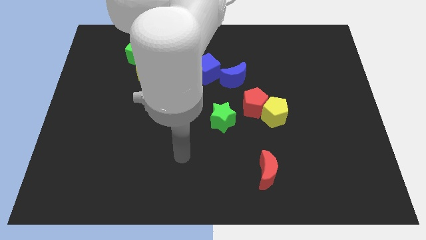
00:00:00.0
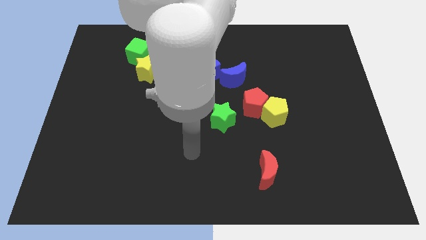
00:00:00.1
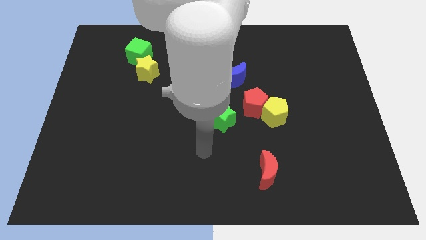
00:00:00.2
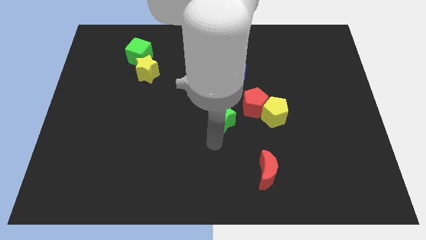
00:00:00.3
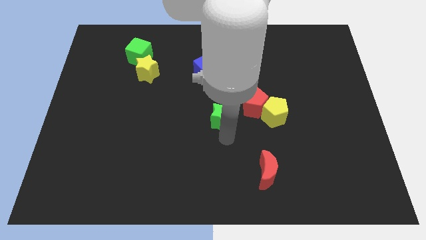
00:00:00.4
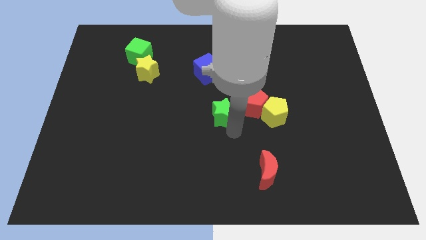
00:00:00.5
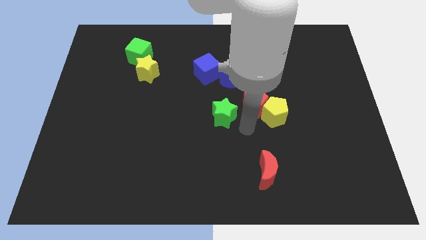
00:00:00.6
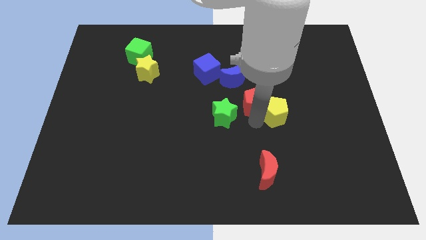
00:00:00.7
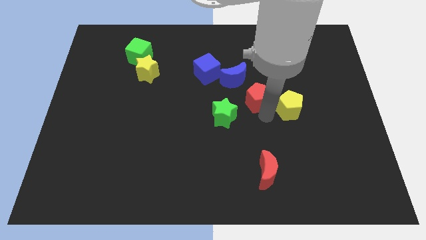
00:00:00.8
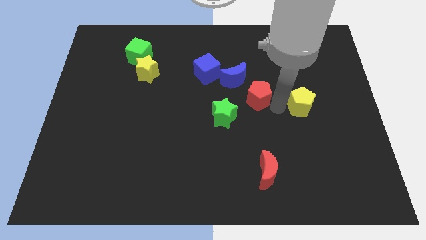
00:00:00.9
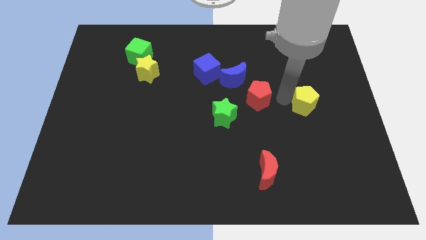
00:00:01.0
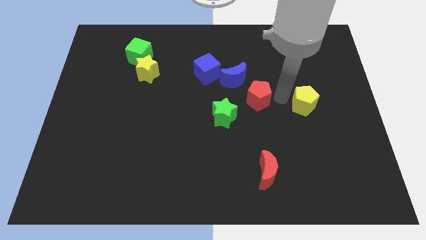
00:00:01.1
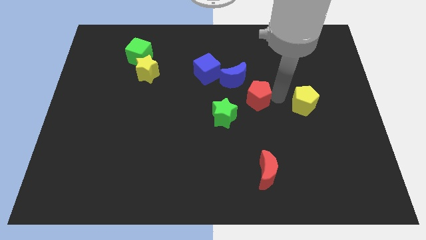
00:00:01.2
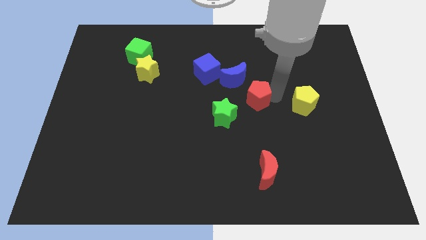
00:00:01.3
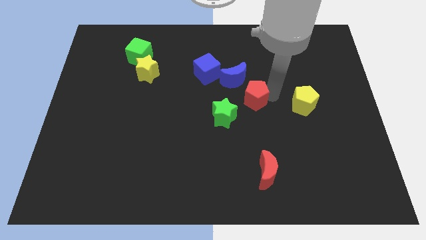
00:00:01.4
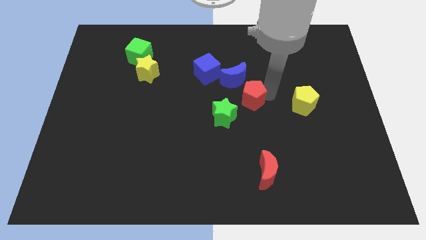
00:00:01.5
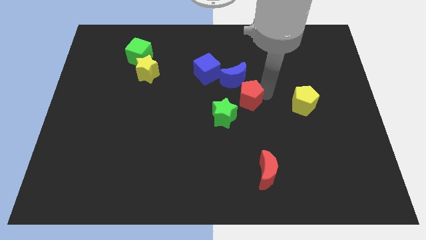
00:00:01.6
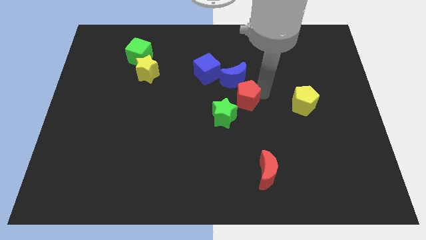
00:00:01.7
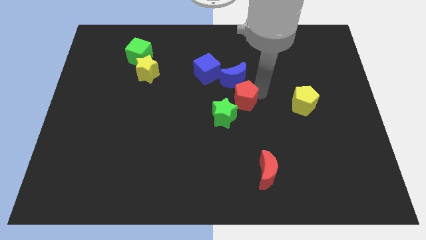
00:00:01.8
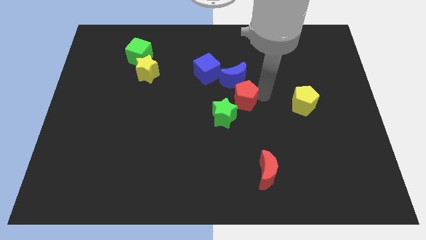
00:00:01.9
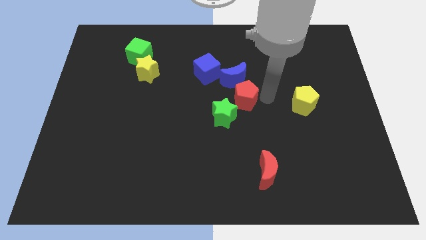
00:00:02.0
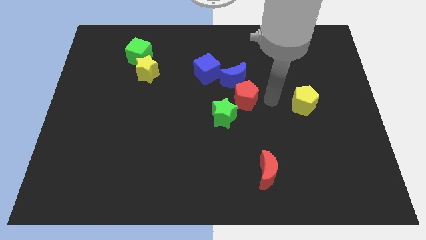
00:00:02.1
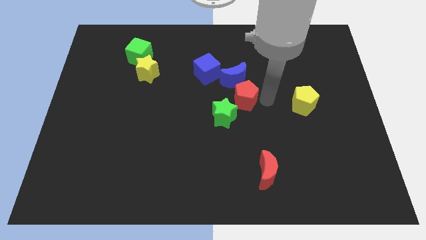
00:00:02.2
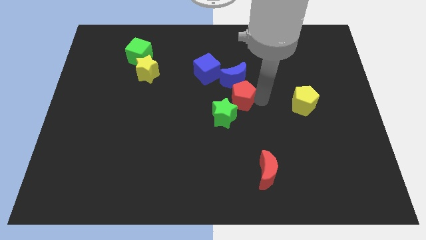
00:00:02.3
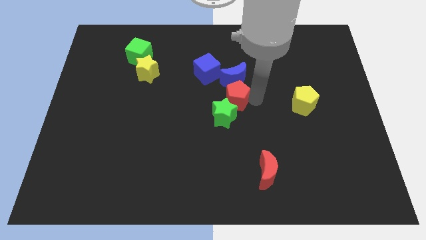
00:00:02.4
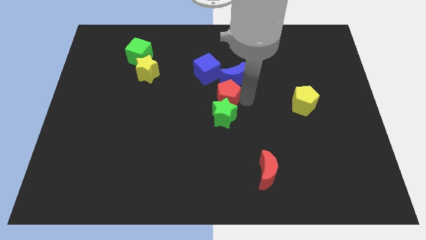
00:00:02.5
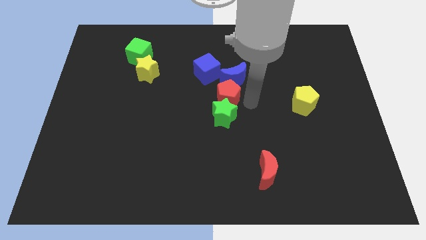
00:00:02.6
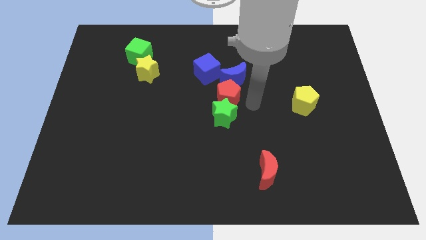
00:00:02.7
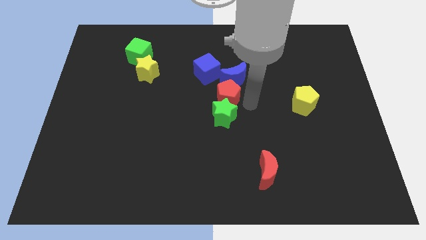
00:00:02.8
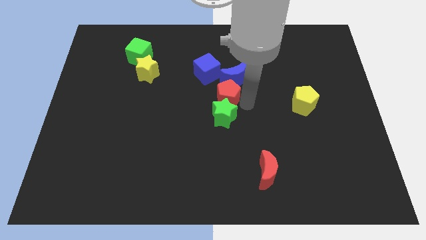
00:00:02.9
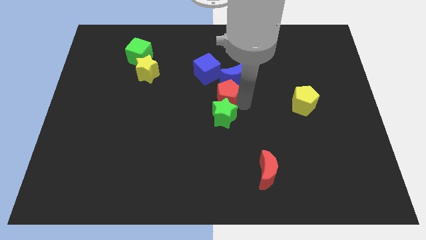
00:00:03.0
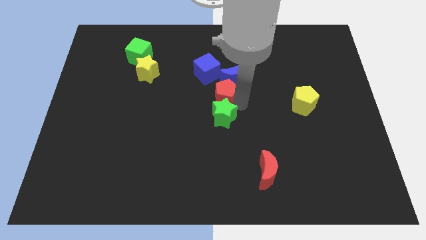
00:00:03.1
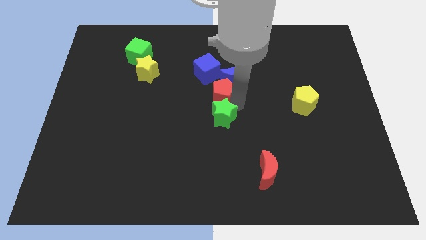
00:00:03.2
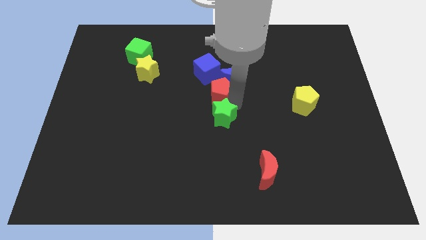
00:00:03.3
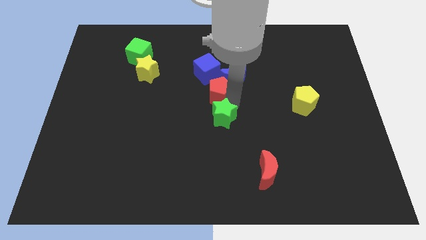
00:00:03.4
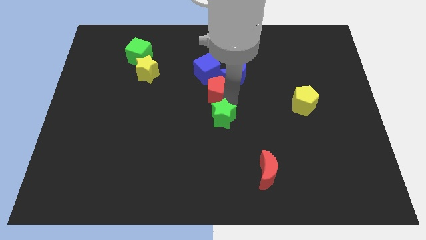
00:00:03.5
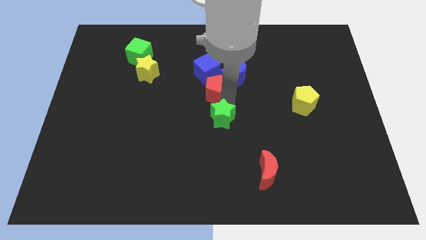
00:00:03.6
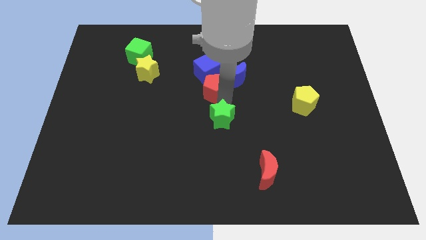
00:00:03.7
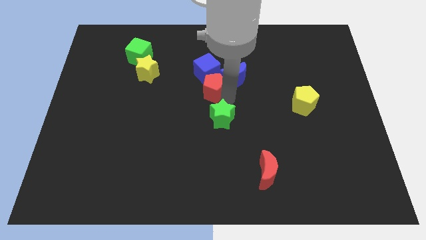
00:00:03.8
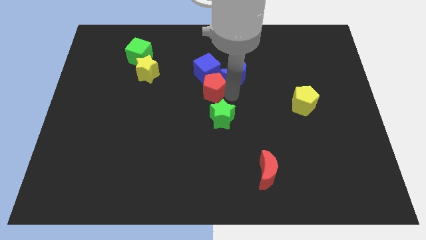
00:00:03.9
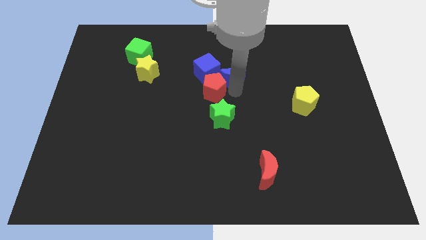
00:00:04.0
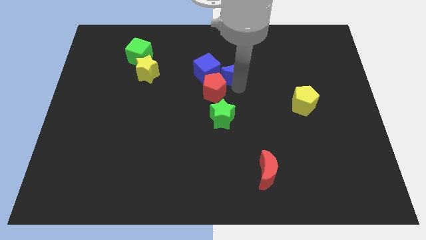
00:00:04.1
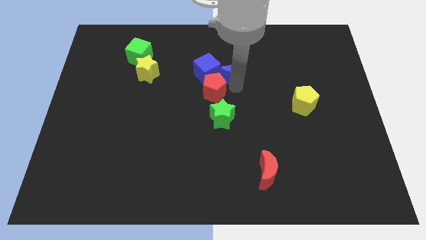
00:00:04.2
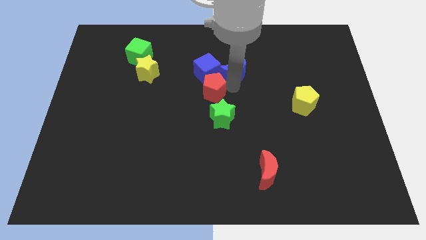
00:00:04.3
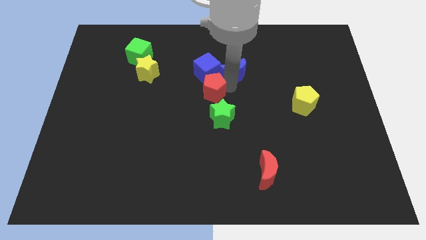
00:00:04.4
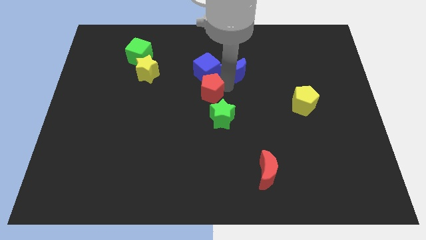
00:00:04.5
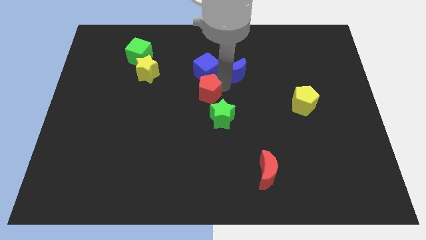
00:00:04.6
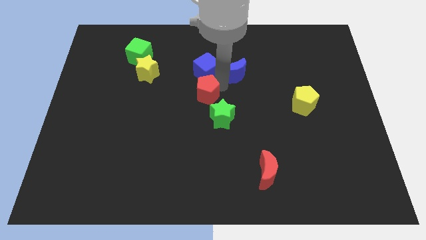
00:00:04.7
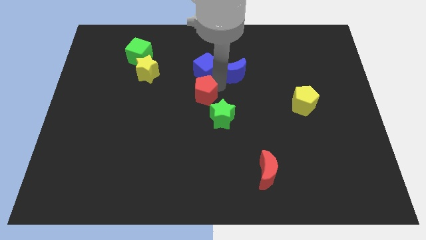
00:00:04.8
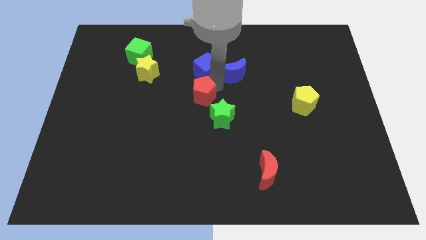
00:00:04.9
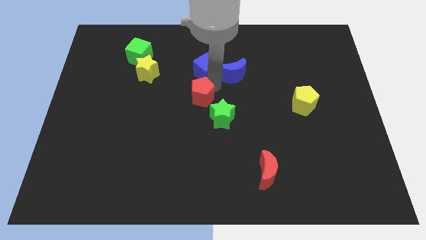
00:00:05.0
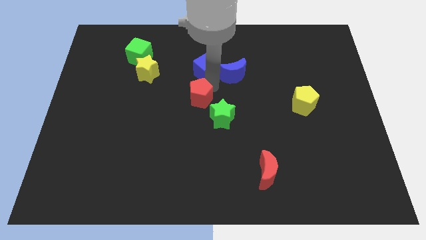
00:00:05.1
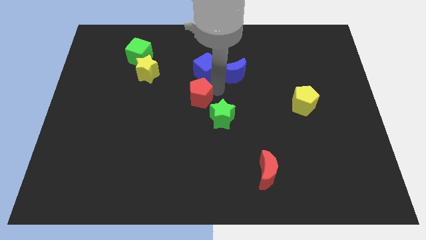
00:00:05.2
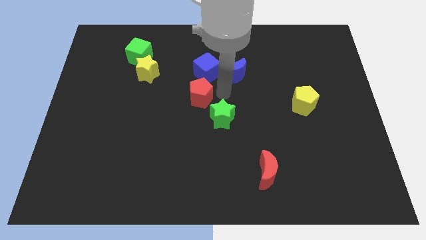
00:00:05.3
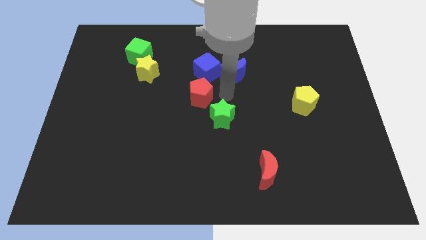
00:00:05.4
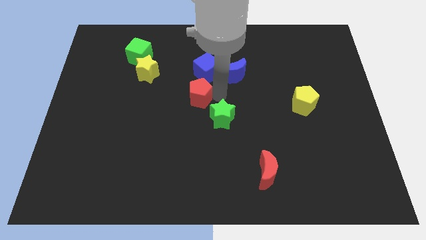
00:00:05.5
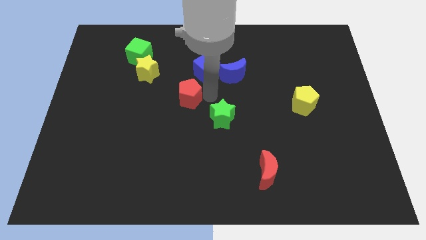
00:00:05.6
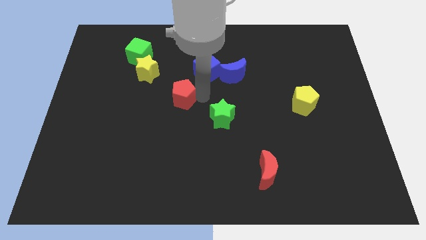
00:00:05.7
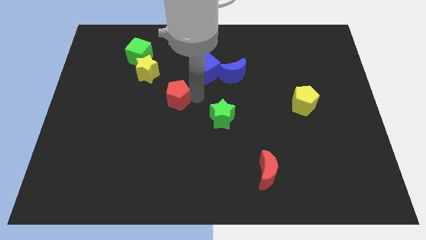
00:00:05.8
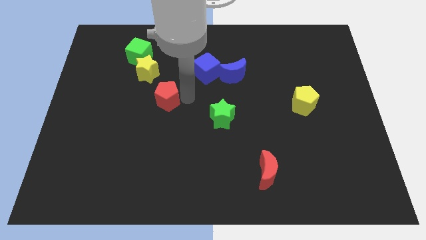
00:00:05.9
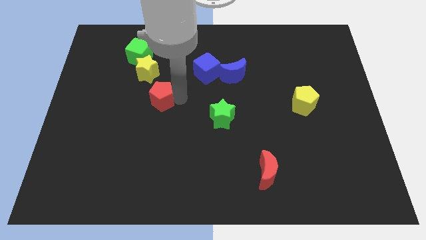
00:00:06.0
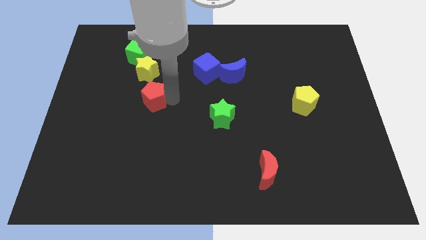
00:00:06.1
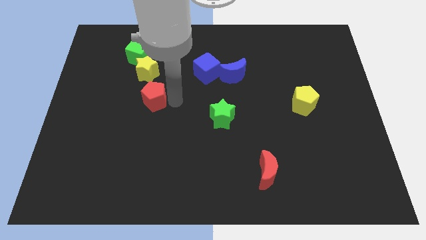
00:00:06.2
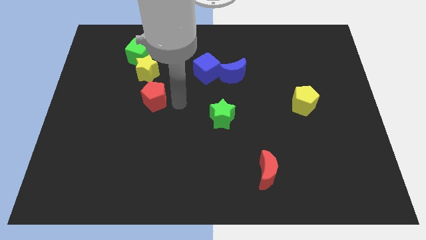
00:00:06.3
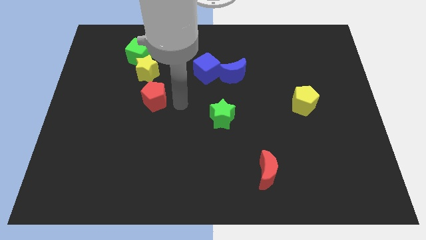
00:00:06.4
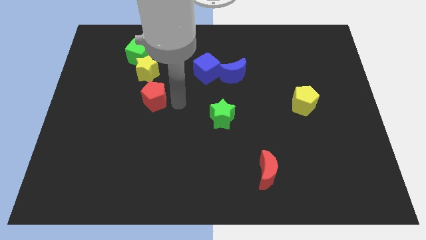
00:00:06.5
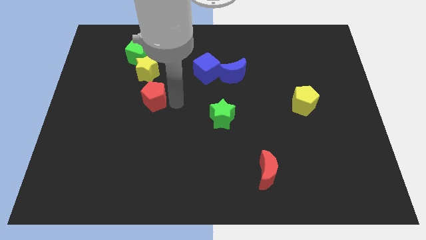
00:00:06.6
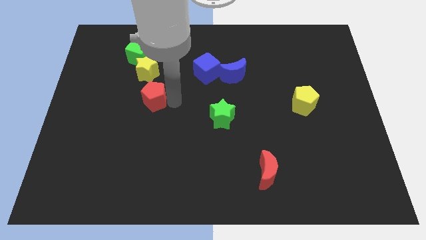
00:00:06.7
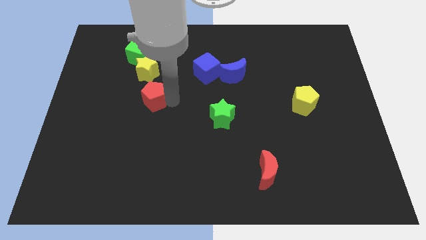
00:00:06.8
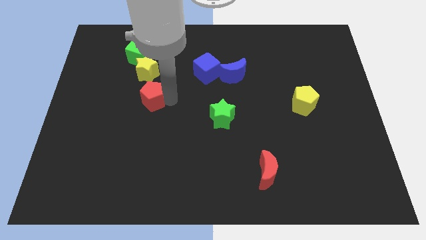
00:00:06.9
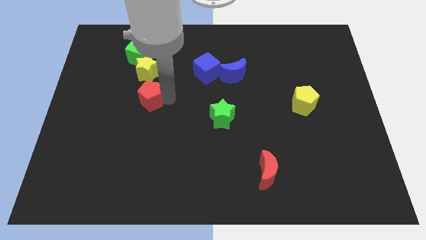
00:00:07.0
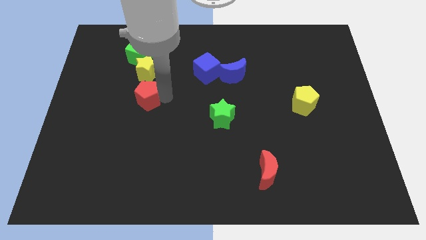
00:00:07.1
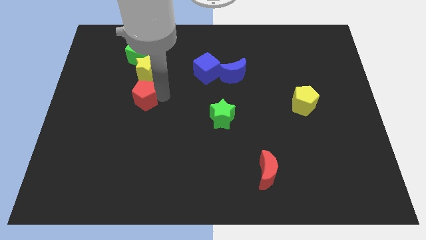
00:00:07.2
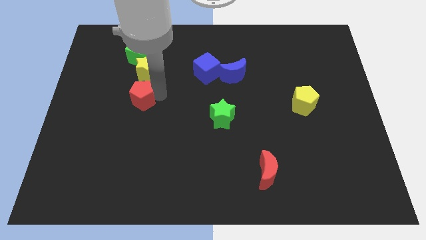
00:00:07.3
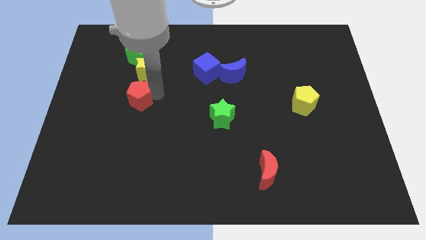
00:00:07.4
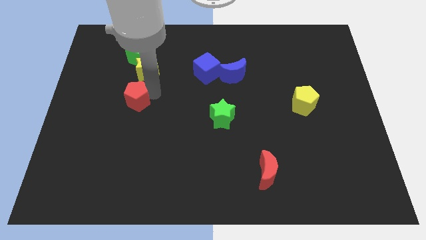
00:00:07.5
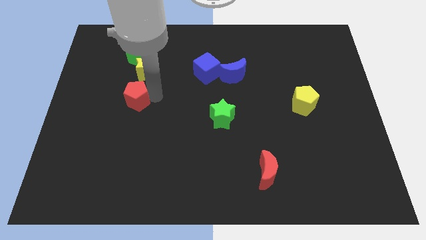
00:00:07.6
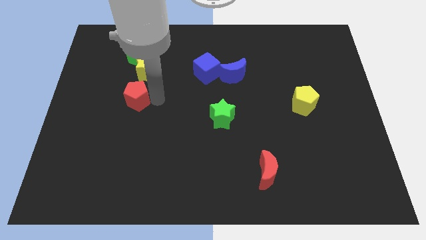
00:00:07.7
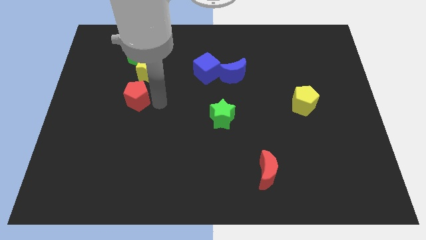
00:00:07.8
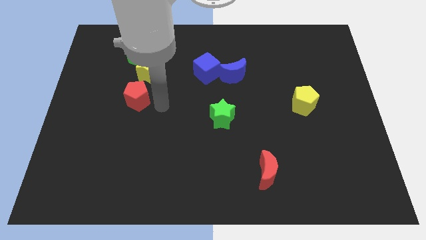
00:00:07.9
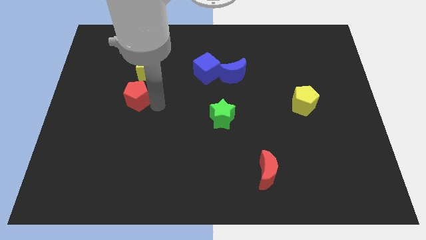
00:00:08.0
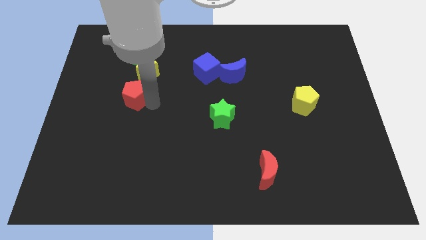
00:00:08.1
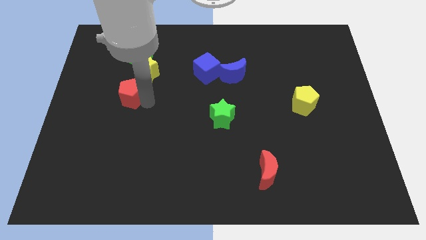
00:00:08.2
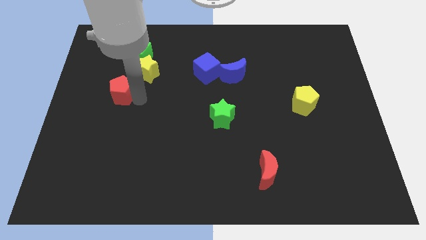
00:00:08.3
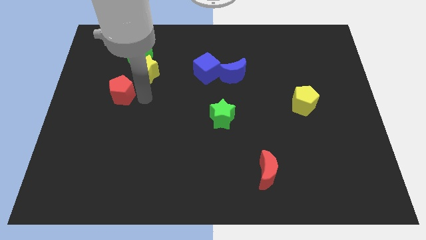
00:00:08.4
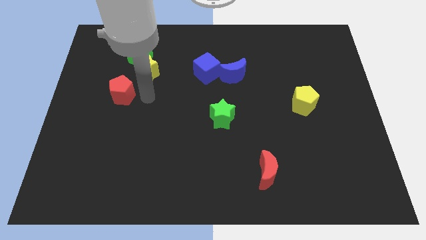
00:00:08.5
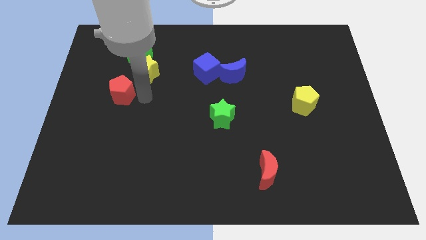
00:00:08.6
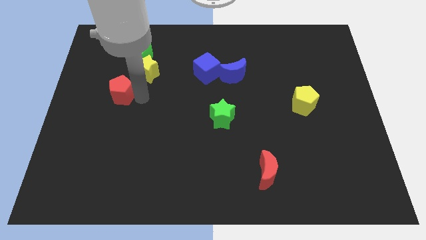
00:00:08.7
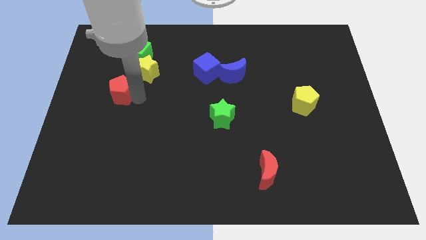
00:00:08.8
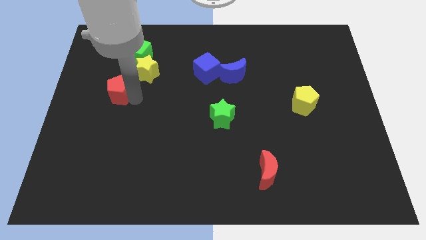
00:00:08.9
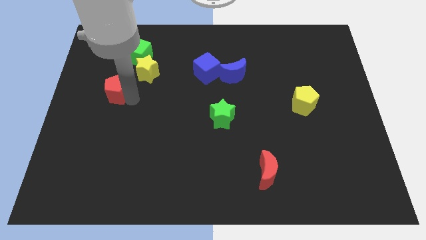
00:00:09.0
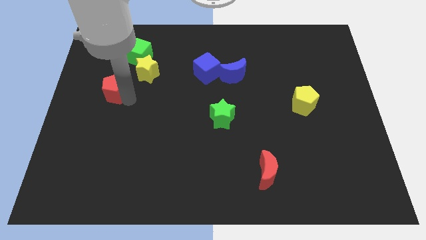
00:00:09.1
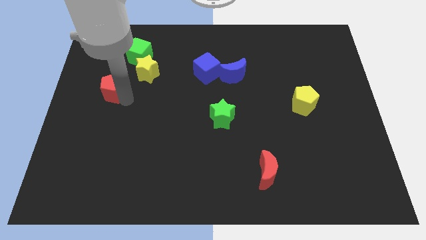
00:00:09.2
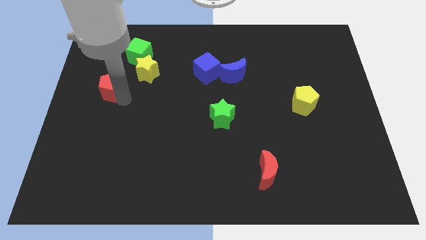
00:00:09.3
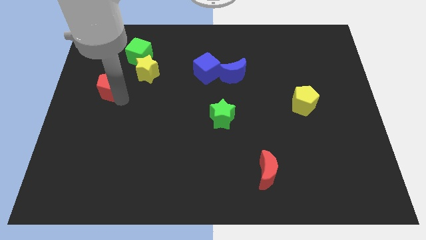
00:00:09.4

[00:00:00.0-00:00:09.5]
move the red pentagon to the center left
